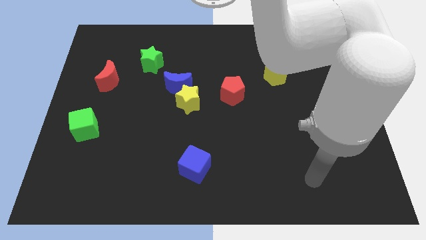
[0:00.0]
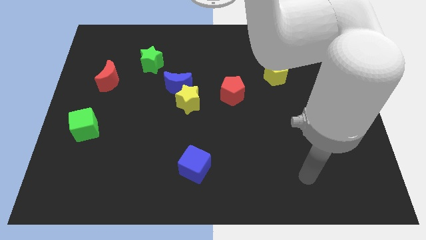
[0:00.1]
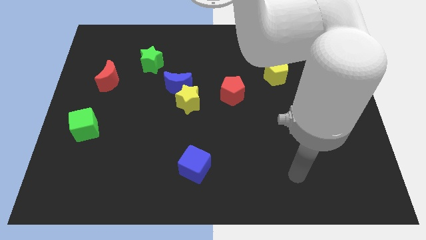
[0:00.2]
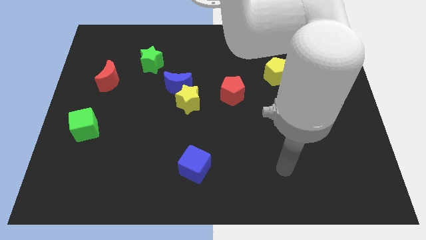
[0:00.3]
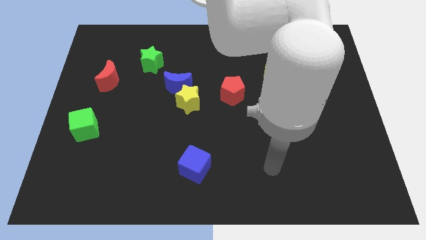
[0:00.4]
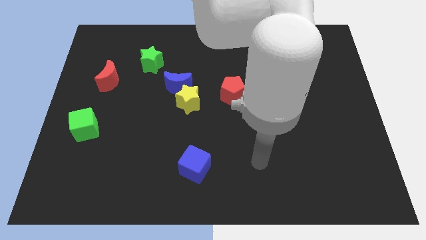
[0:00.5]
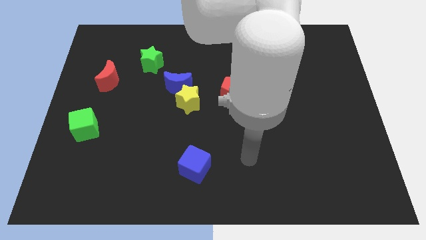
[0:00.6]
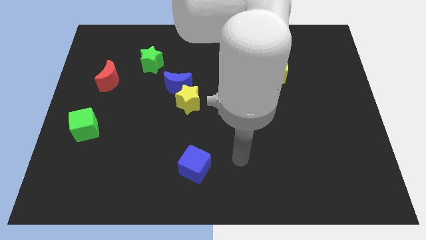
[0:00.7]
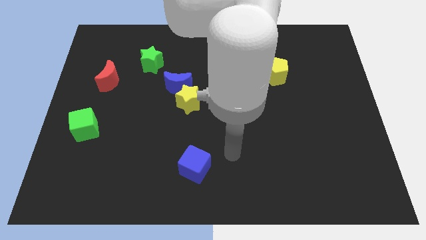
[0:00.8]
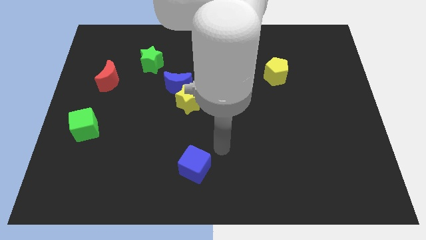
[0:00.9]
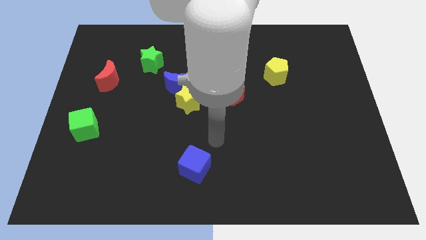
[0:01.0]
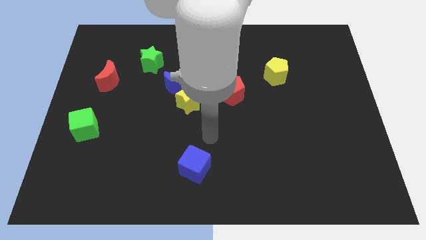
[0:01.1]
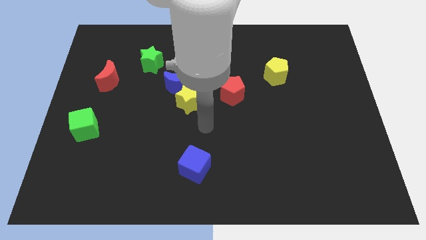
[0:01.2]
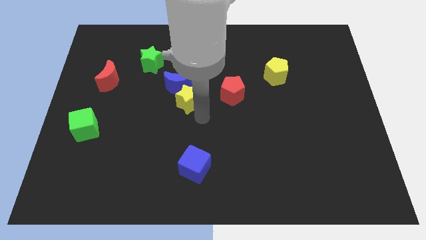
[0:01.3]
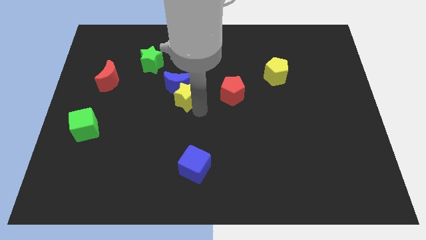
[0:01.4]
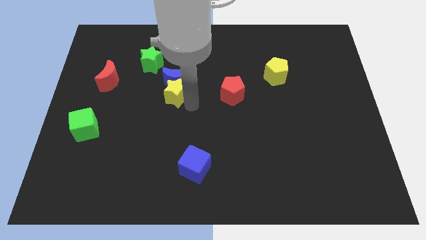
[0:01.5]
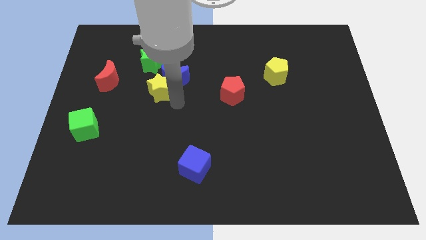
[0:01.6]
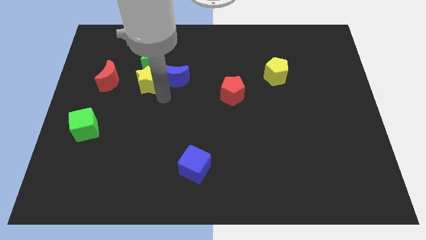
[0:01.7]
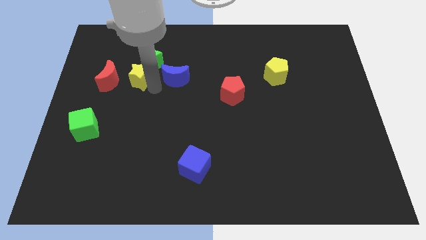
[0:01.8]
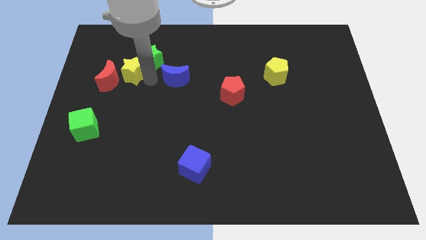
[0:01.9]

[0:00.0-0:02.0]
pull the blue moon apart from the yellow star

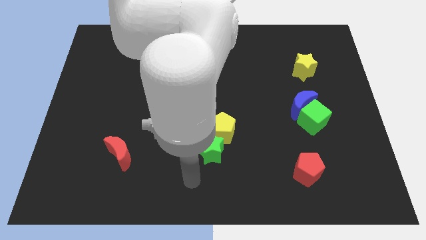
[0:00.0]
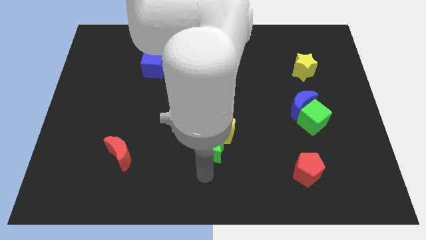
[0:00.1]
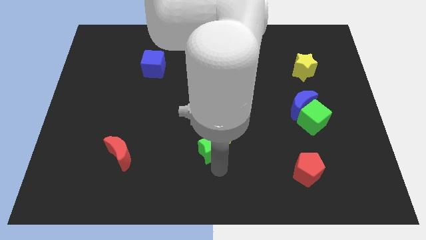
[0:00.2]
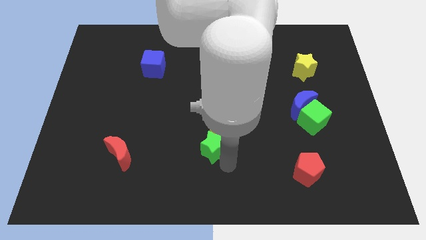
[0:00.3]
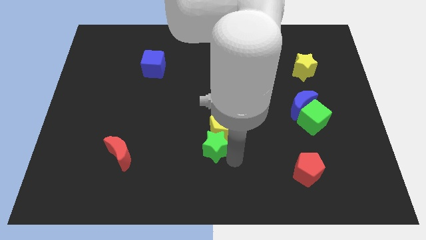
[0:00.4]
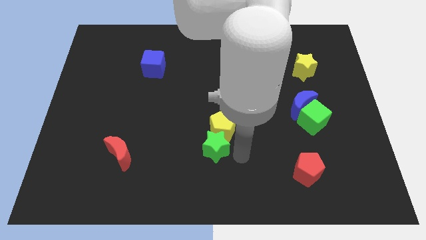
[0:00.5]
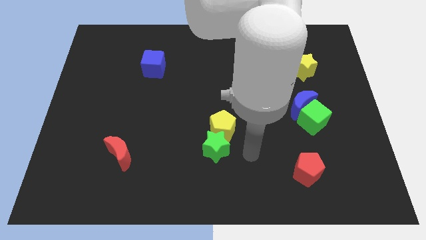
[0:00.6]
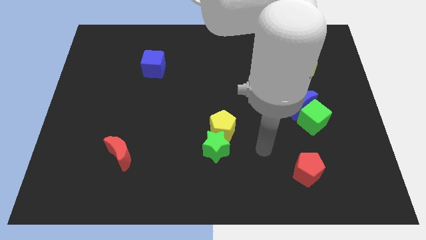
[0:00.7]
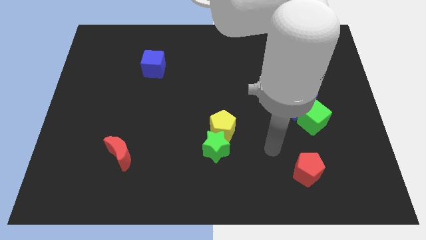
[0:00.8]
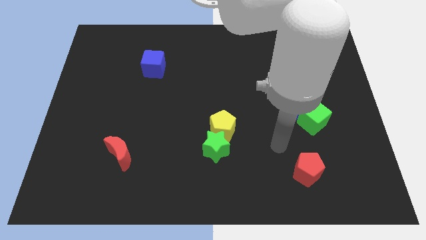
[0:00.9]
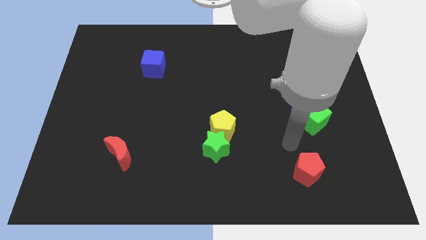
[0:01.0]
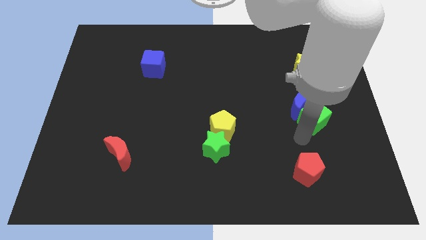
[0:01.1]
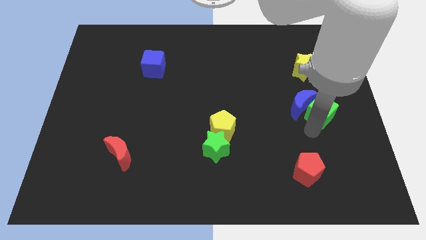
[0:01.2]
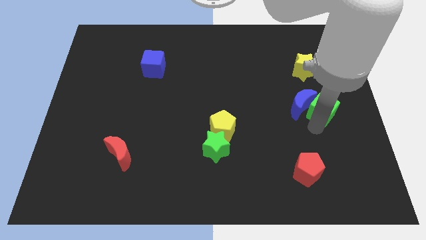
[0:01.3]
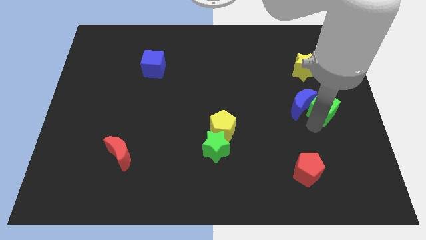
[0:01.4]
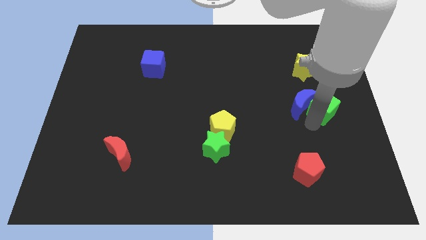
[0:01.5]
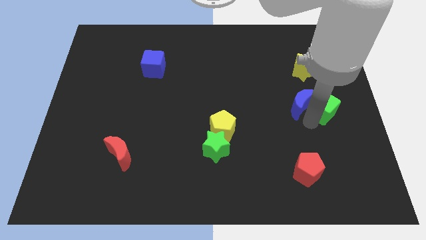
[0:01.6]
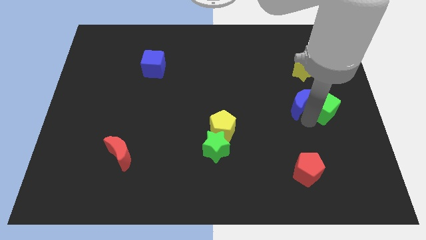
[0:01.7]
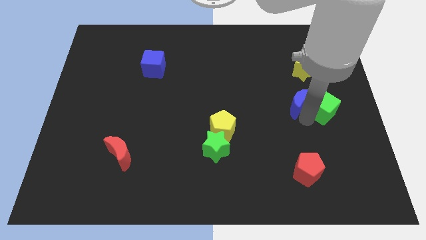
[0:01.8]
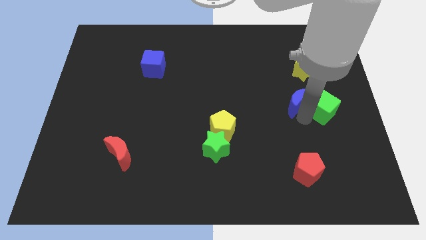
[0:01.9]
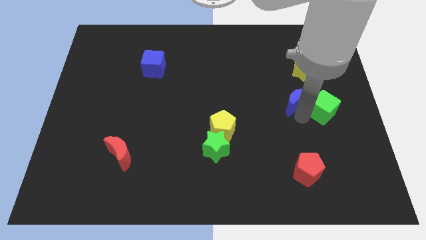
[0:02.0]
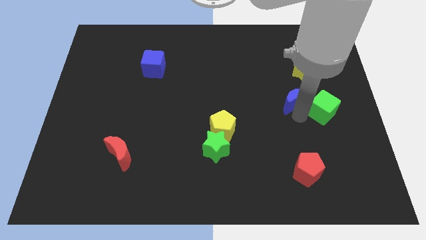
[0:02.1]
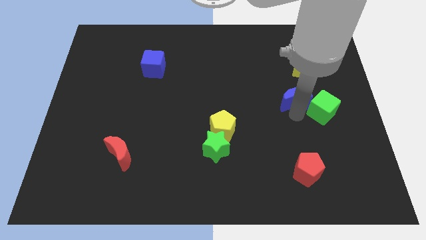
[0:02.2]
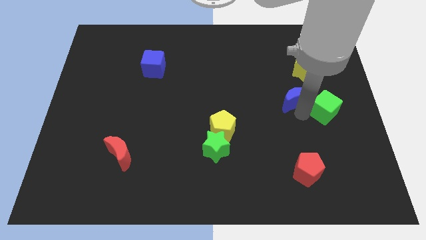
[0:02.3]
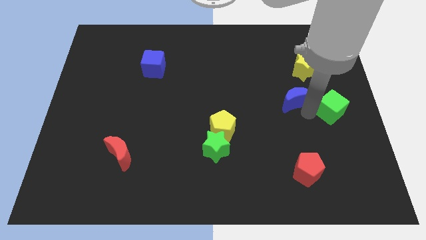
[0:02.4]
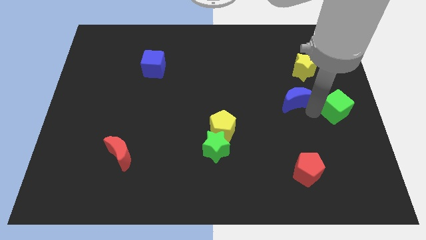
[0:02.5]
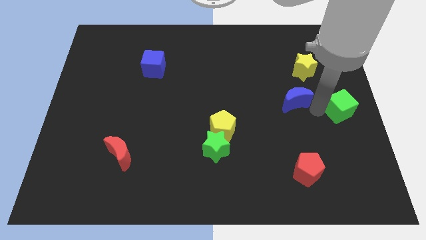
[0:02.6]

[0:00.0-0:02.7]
pull the blue moon apart from the green cube

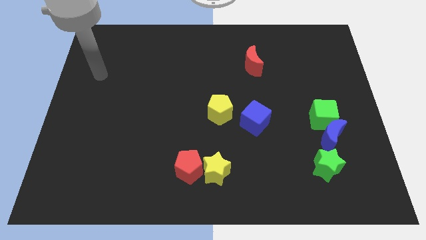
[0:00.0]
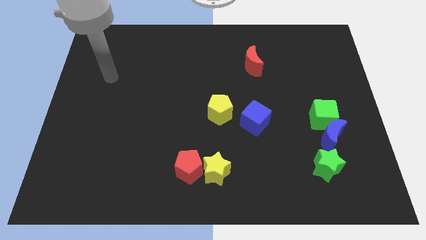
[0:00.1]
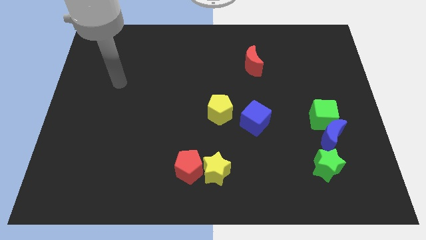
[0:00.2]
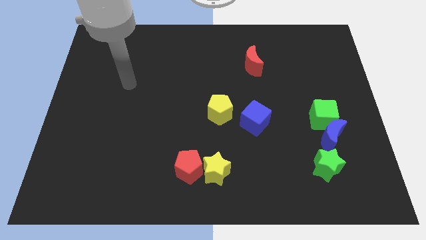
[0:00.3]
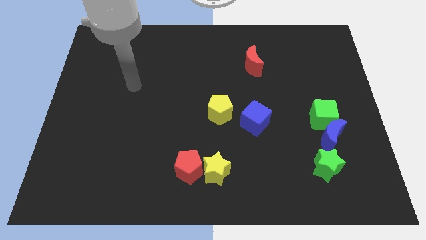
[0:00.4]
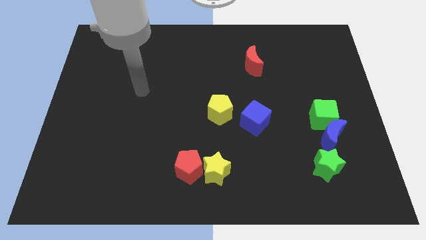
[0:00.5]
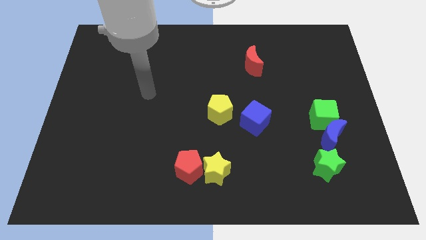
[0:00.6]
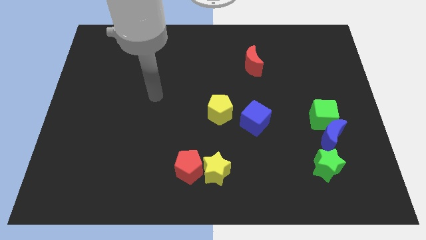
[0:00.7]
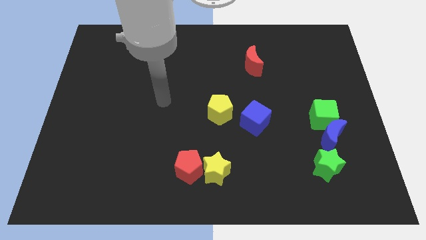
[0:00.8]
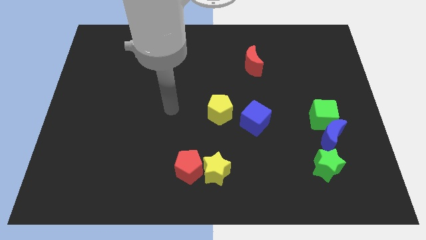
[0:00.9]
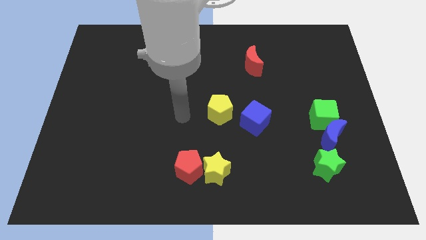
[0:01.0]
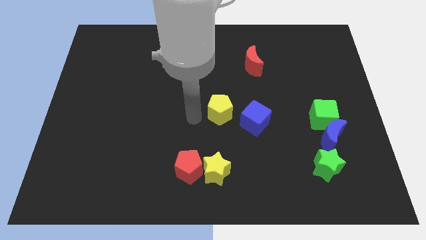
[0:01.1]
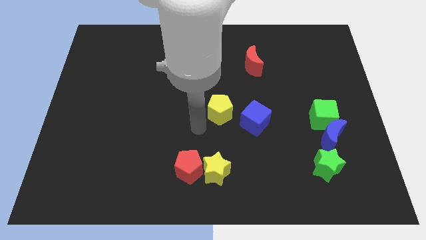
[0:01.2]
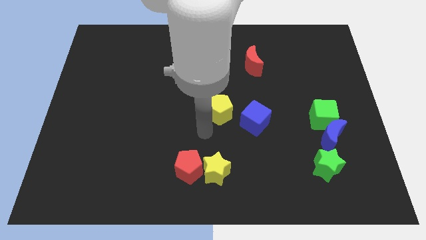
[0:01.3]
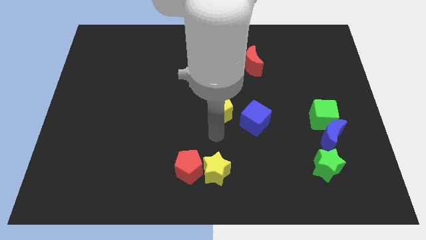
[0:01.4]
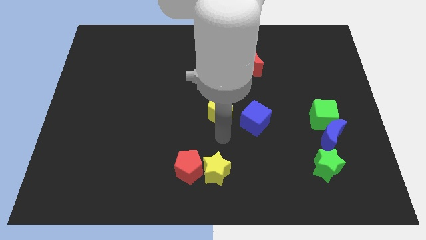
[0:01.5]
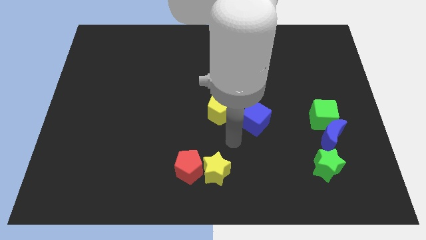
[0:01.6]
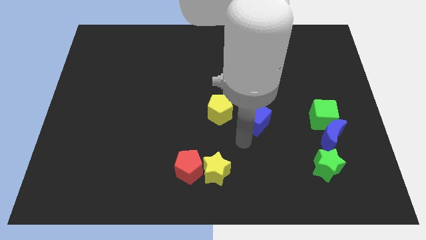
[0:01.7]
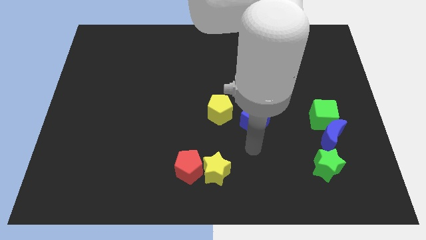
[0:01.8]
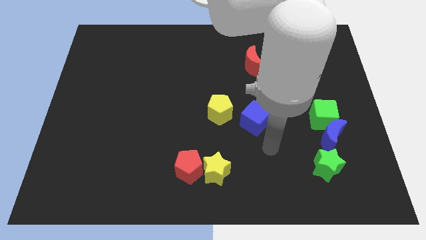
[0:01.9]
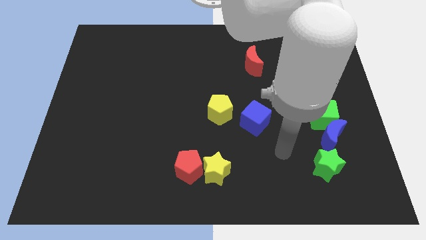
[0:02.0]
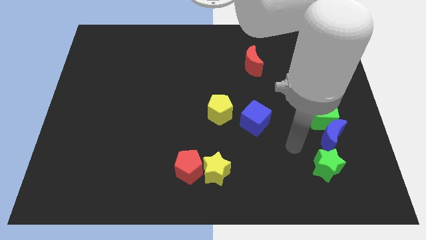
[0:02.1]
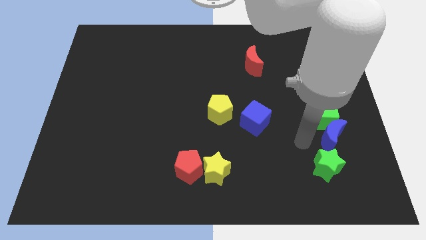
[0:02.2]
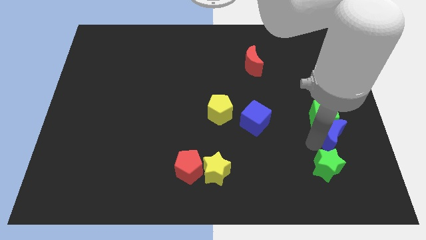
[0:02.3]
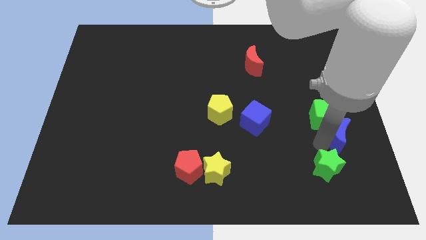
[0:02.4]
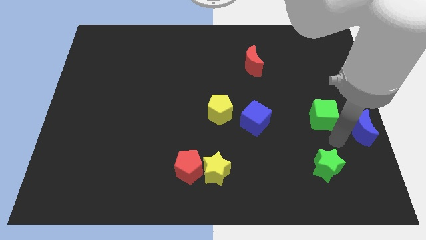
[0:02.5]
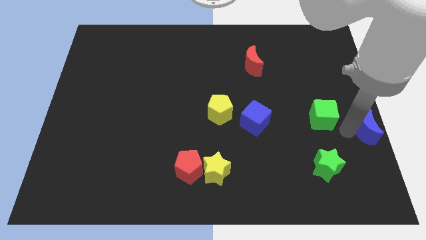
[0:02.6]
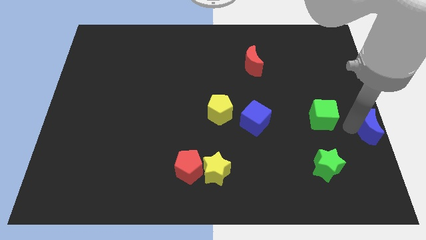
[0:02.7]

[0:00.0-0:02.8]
pull the green cube apart from the blue moon

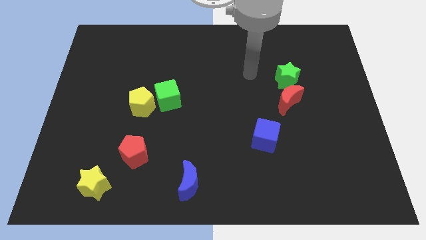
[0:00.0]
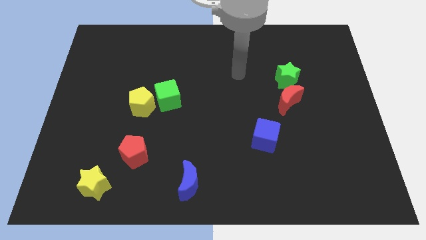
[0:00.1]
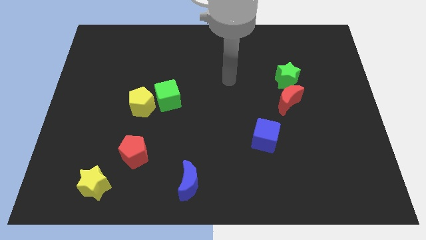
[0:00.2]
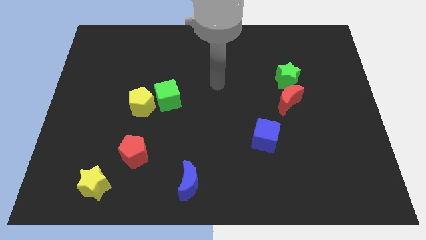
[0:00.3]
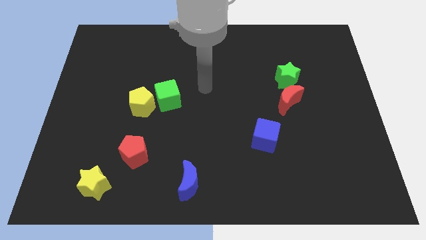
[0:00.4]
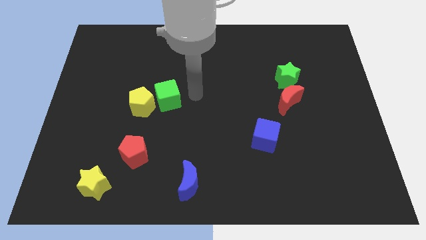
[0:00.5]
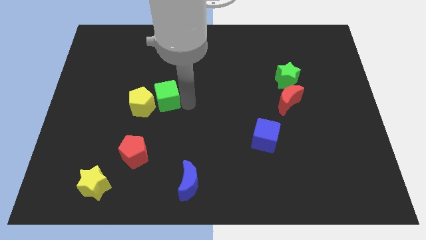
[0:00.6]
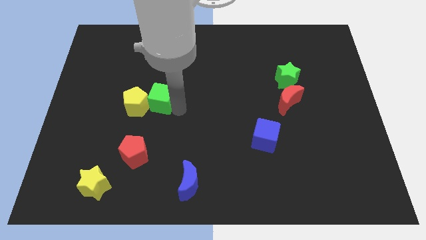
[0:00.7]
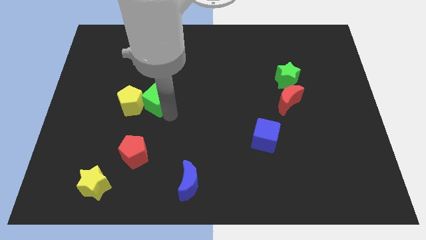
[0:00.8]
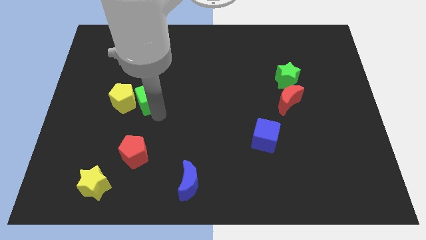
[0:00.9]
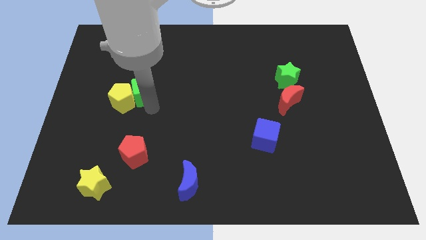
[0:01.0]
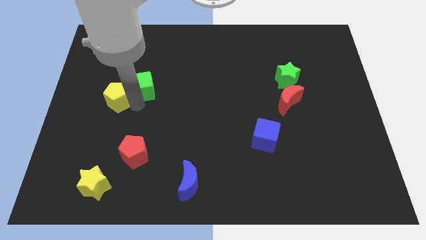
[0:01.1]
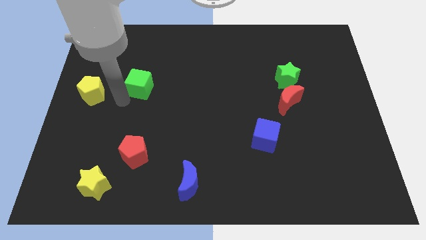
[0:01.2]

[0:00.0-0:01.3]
separate the green cube from the yellow pentagon

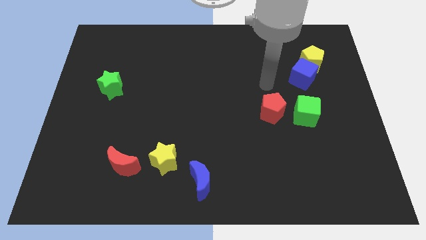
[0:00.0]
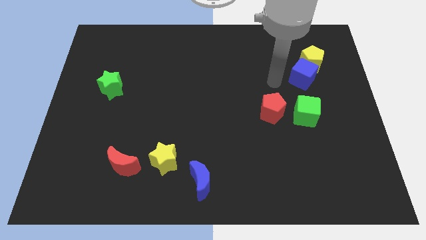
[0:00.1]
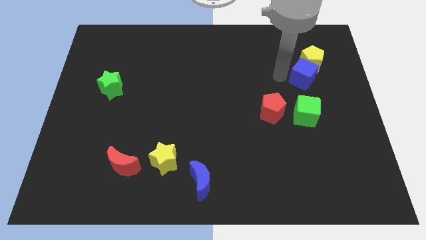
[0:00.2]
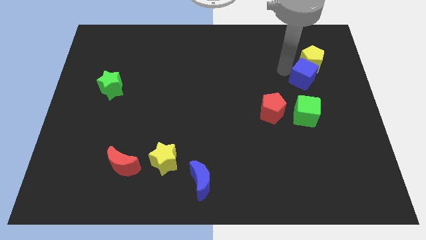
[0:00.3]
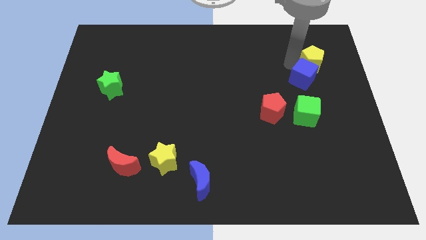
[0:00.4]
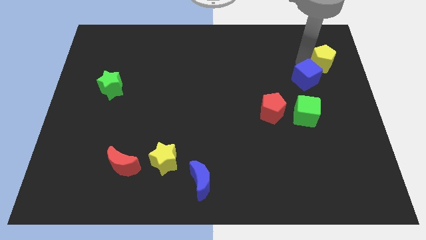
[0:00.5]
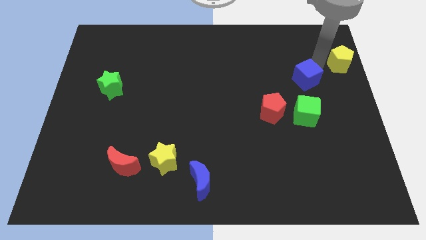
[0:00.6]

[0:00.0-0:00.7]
move the blue cube away from the yellow pentagon
